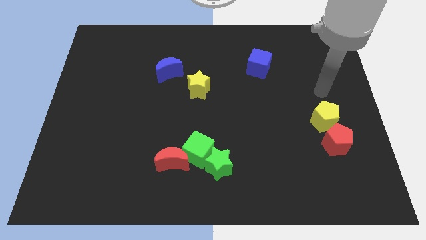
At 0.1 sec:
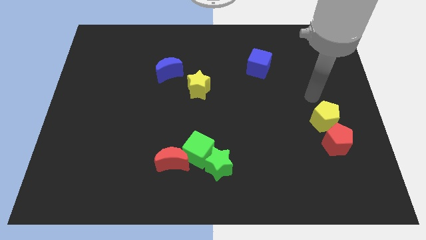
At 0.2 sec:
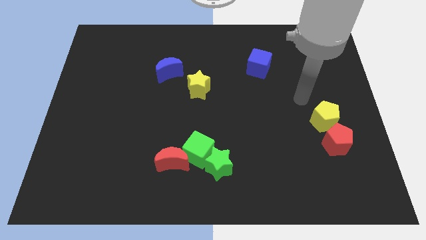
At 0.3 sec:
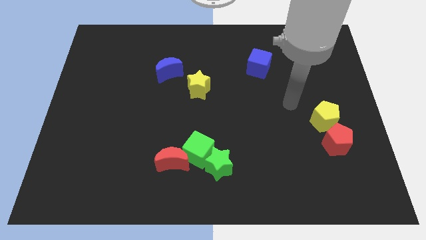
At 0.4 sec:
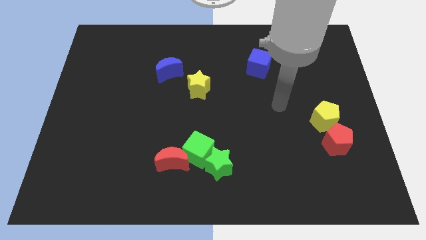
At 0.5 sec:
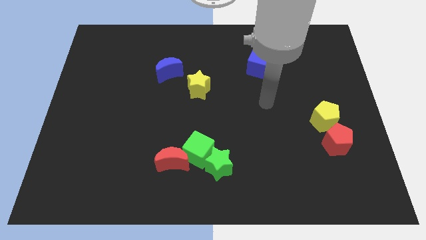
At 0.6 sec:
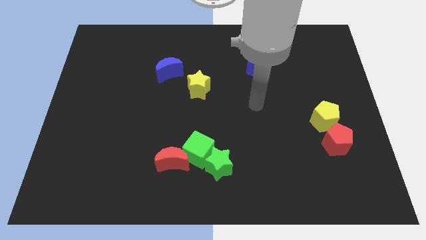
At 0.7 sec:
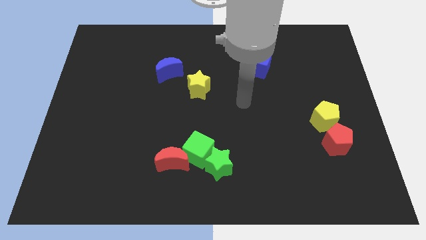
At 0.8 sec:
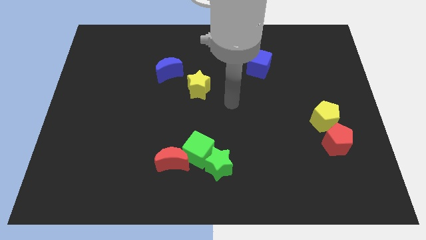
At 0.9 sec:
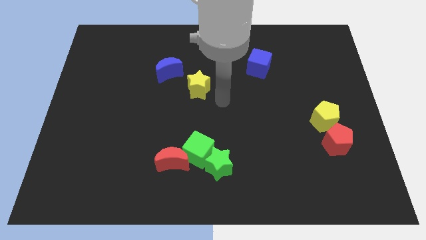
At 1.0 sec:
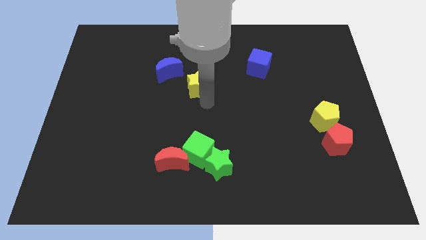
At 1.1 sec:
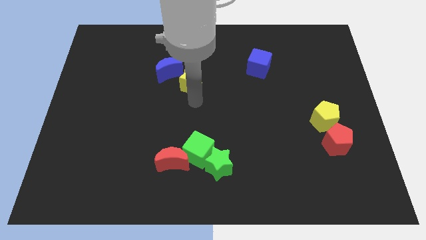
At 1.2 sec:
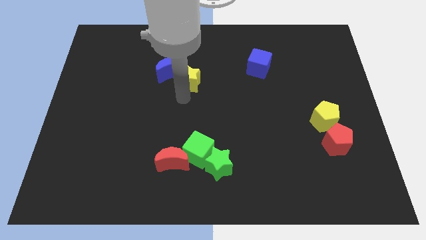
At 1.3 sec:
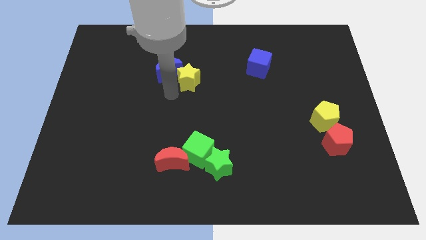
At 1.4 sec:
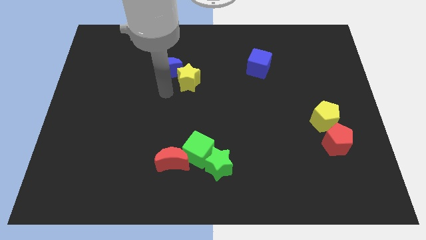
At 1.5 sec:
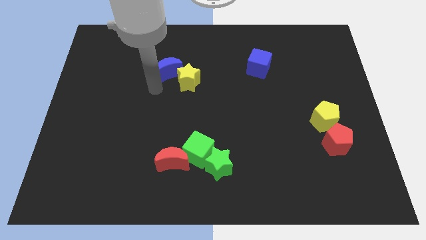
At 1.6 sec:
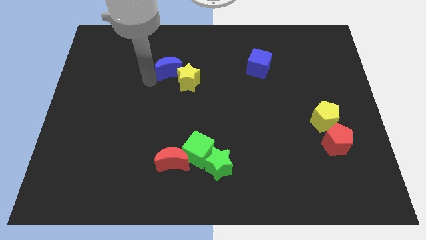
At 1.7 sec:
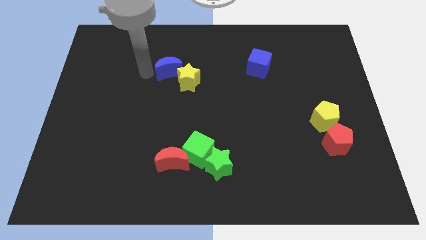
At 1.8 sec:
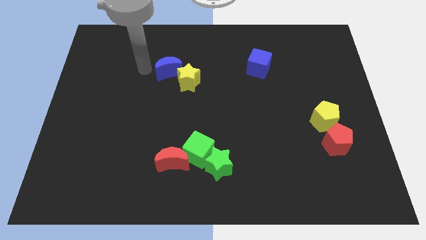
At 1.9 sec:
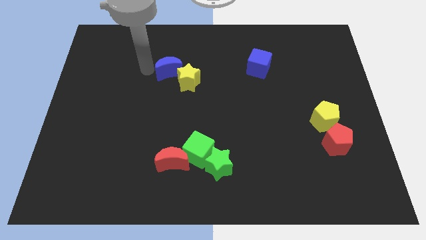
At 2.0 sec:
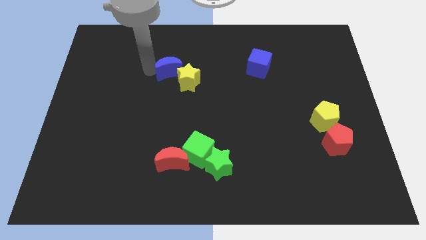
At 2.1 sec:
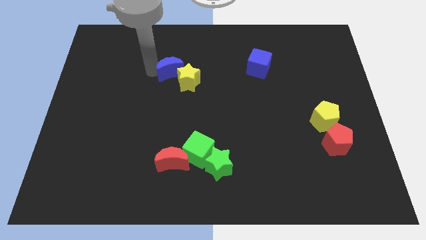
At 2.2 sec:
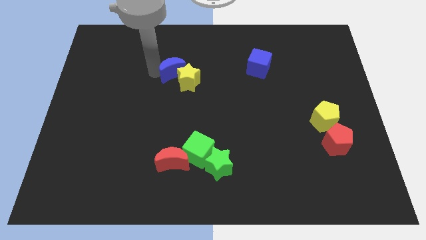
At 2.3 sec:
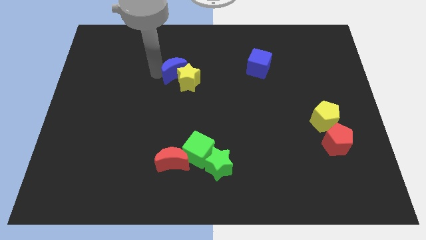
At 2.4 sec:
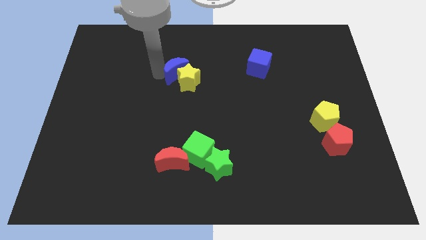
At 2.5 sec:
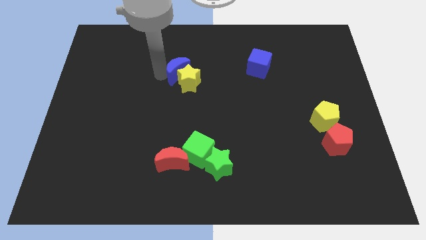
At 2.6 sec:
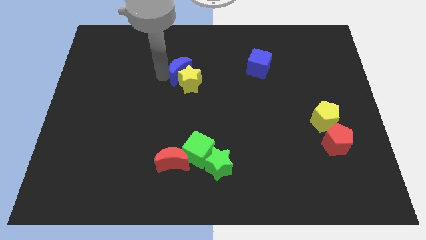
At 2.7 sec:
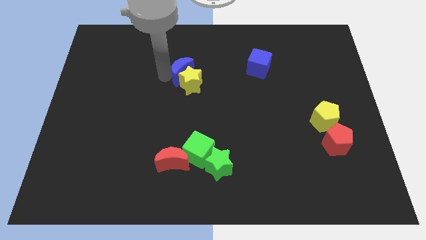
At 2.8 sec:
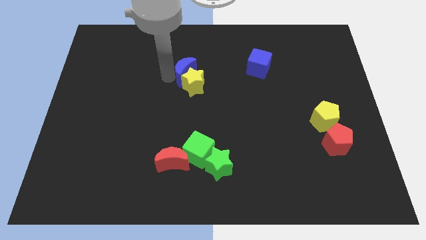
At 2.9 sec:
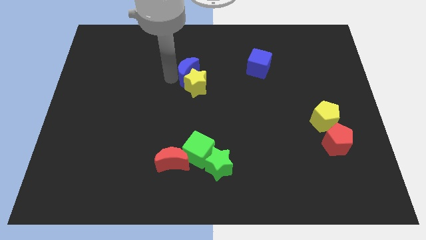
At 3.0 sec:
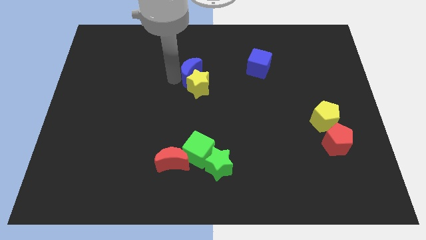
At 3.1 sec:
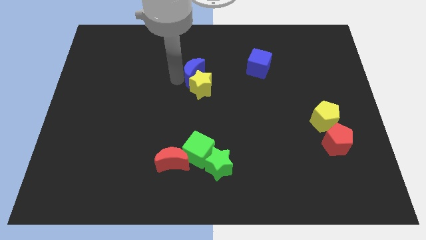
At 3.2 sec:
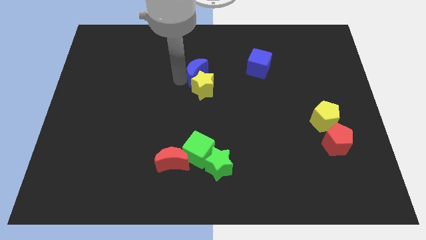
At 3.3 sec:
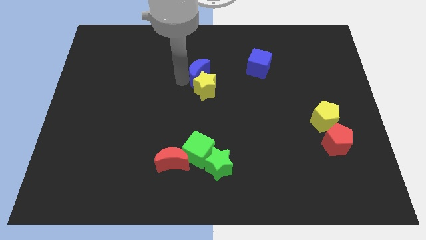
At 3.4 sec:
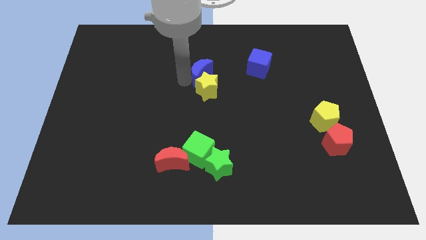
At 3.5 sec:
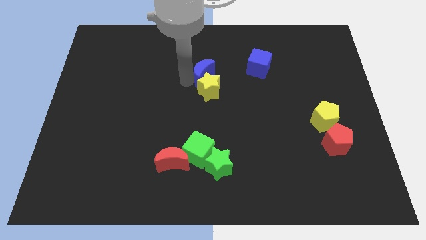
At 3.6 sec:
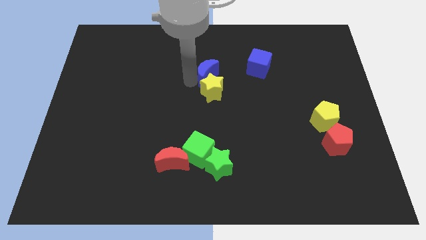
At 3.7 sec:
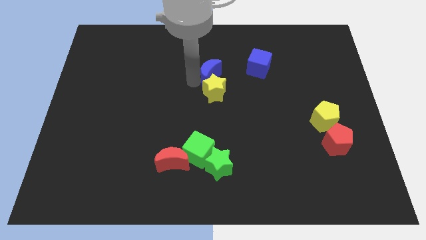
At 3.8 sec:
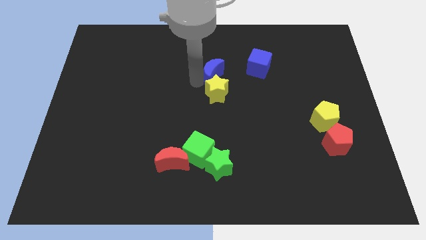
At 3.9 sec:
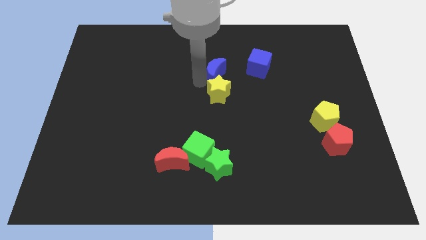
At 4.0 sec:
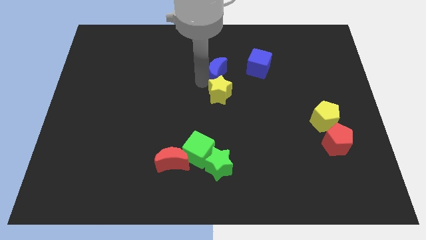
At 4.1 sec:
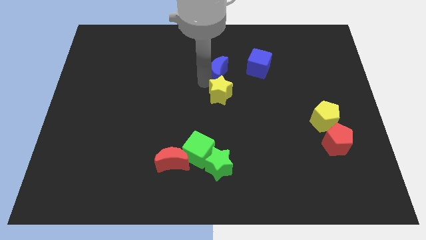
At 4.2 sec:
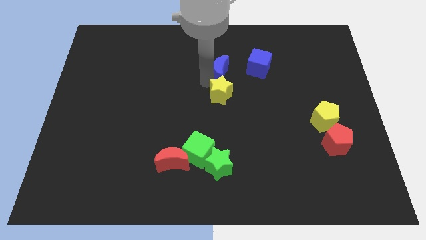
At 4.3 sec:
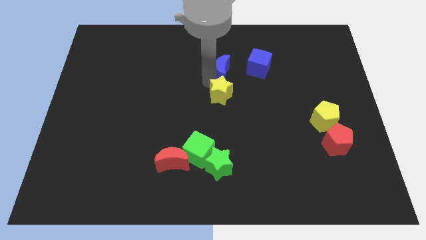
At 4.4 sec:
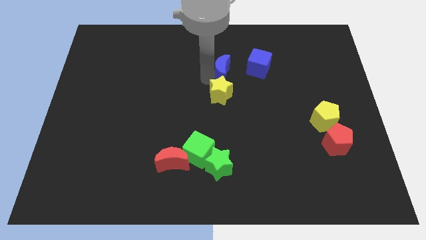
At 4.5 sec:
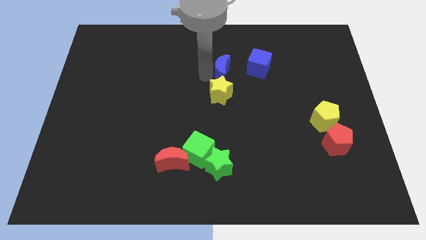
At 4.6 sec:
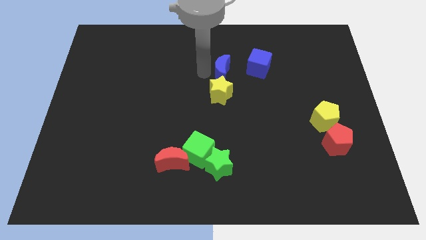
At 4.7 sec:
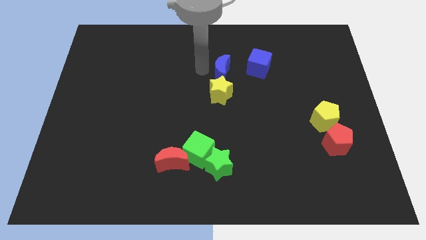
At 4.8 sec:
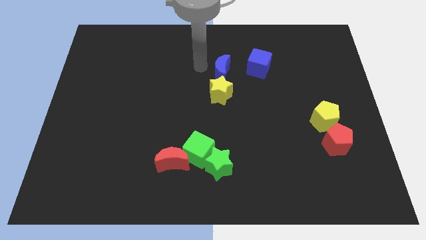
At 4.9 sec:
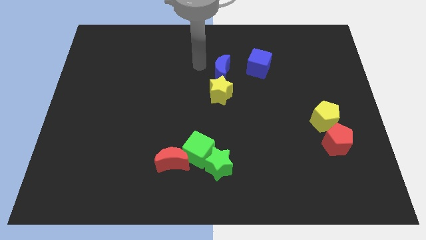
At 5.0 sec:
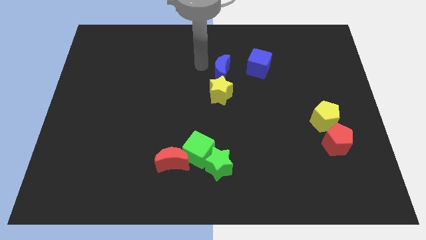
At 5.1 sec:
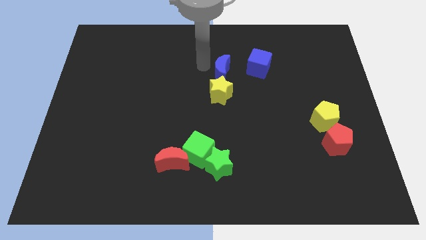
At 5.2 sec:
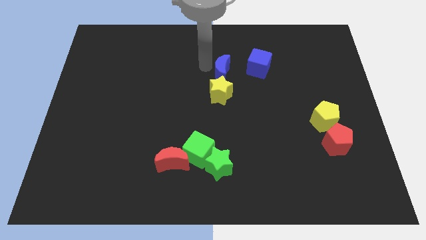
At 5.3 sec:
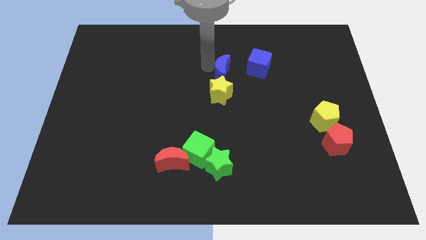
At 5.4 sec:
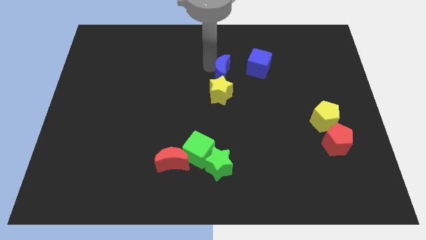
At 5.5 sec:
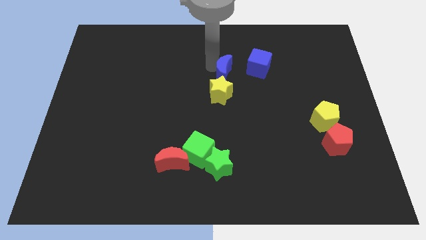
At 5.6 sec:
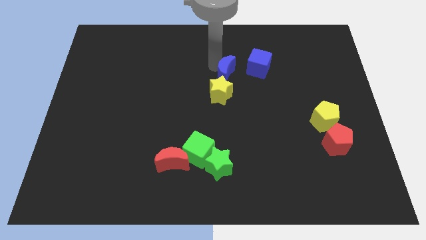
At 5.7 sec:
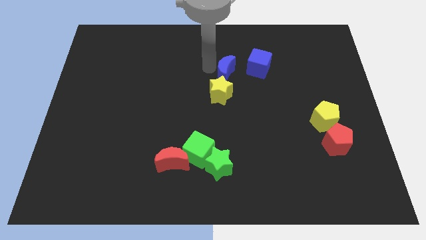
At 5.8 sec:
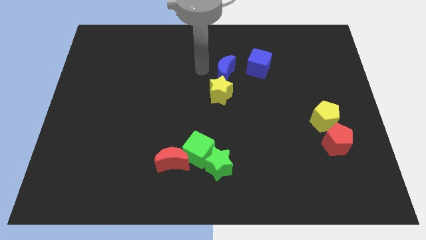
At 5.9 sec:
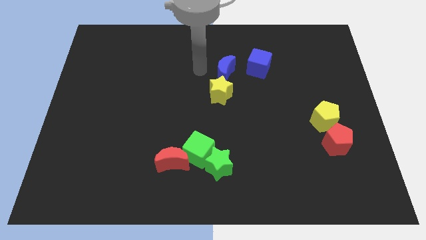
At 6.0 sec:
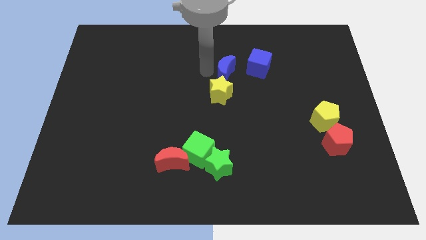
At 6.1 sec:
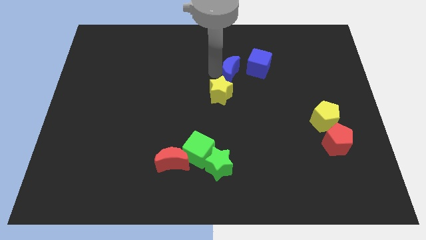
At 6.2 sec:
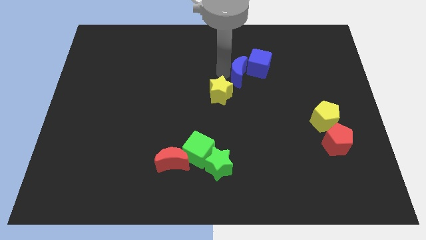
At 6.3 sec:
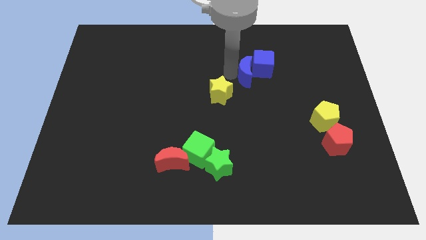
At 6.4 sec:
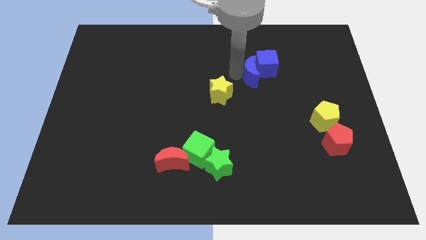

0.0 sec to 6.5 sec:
move the blue moon right

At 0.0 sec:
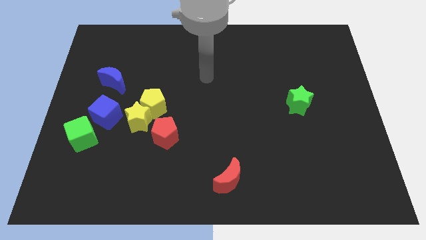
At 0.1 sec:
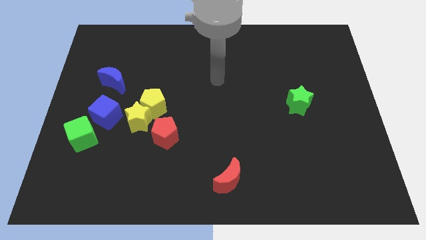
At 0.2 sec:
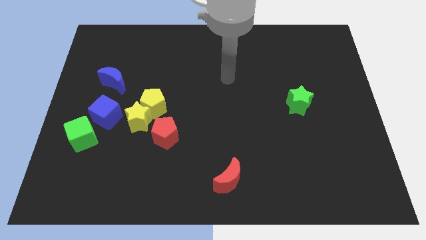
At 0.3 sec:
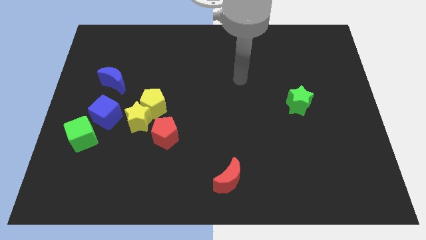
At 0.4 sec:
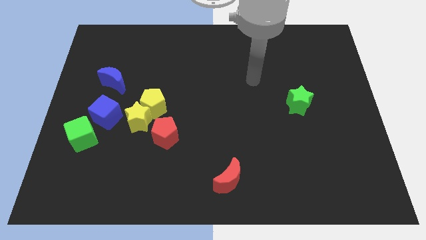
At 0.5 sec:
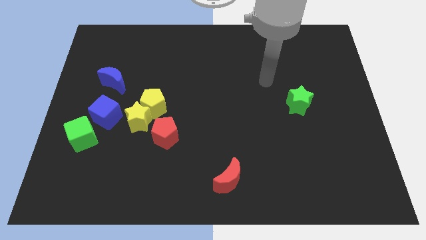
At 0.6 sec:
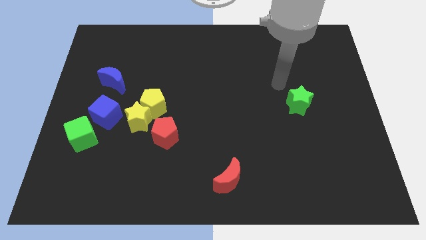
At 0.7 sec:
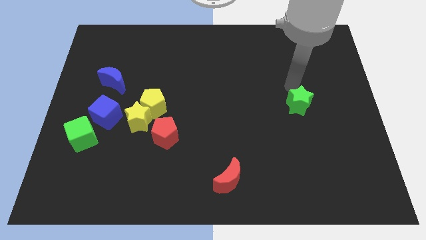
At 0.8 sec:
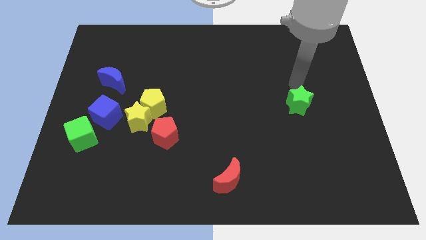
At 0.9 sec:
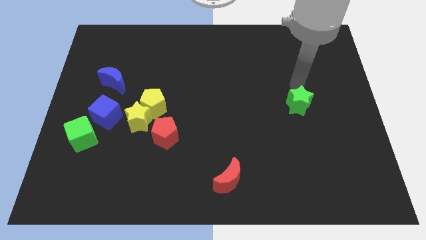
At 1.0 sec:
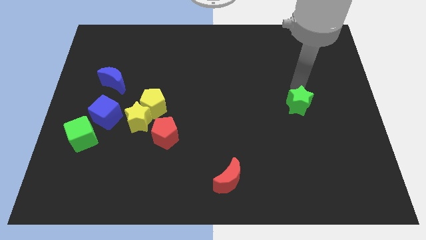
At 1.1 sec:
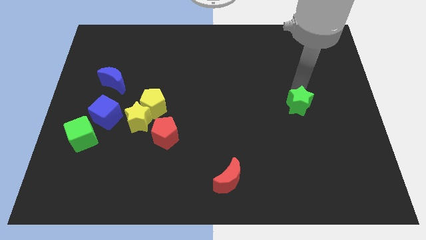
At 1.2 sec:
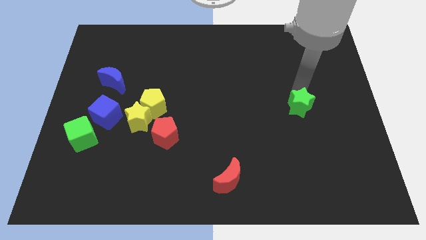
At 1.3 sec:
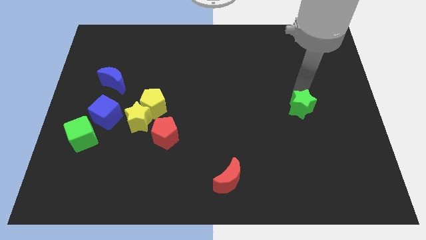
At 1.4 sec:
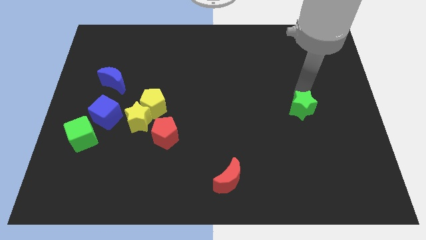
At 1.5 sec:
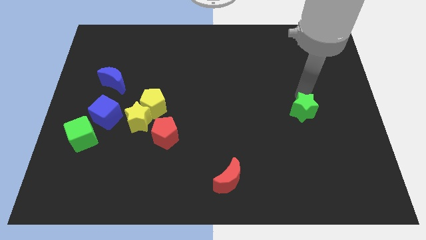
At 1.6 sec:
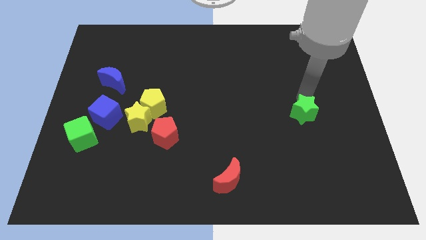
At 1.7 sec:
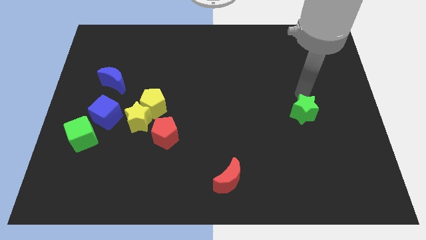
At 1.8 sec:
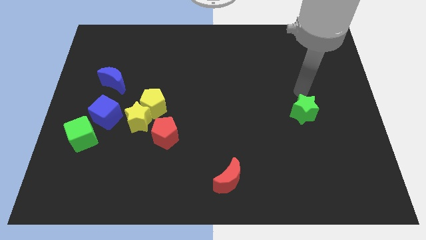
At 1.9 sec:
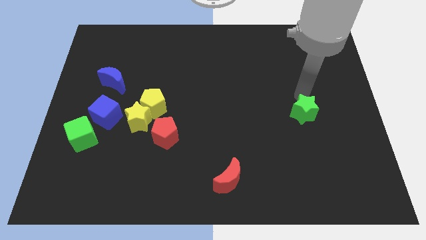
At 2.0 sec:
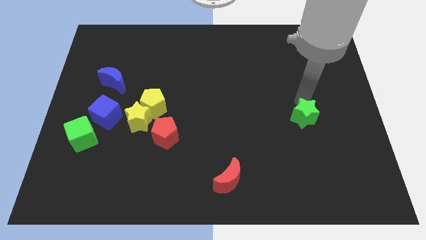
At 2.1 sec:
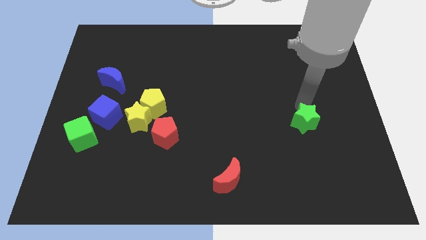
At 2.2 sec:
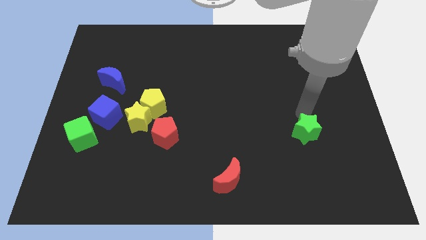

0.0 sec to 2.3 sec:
slightly slide the green star down
